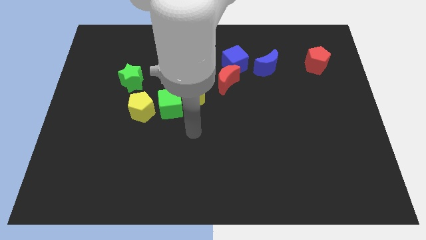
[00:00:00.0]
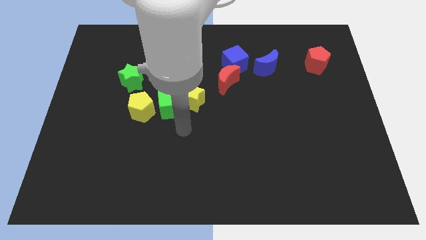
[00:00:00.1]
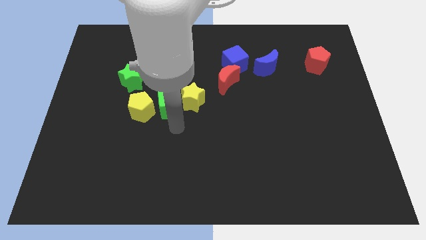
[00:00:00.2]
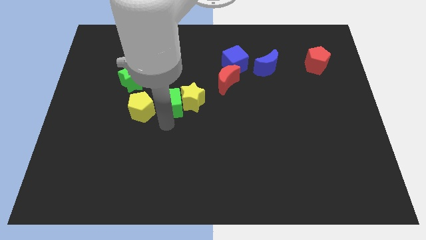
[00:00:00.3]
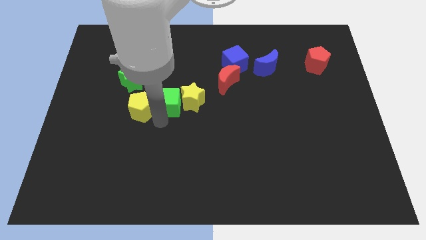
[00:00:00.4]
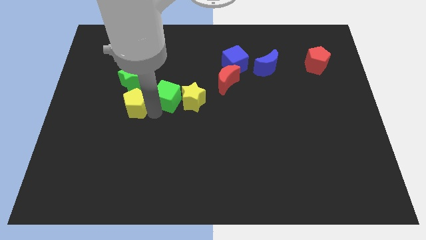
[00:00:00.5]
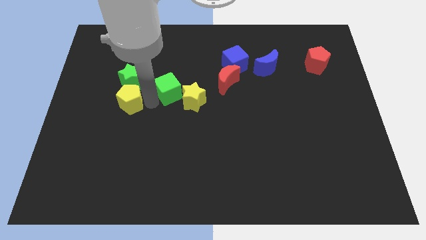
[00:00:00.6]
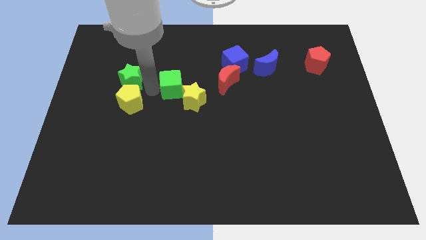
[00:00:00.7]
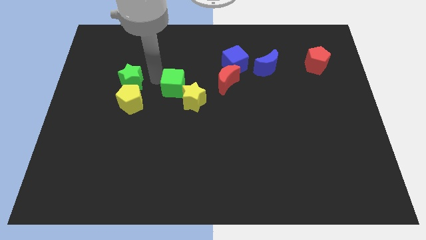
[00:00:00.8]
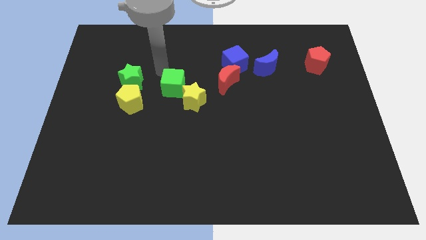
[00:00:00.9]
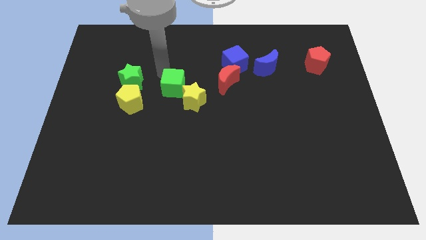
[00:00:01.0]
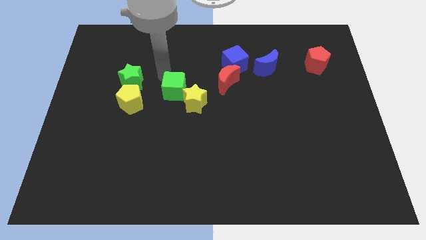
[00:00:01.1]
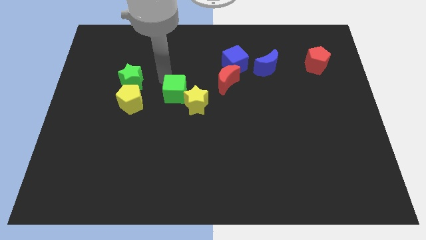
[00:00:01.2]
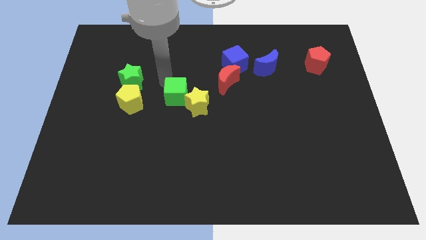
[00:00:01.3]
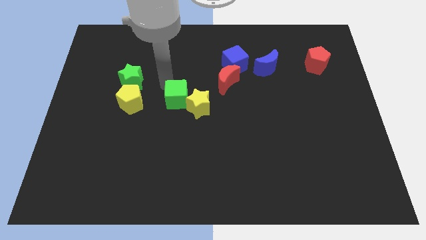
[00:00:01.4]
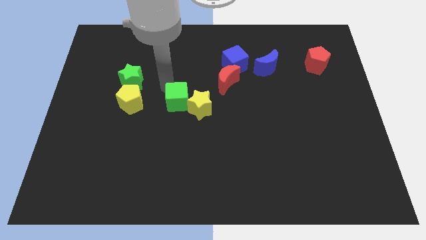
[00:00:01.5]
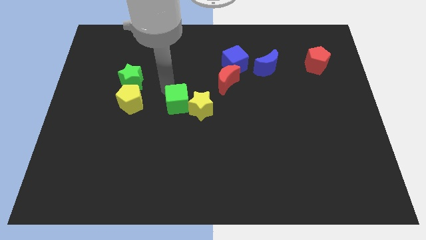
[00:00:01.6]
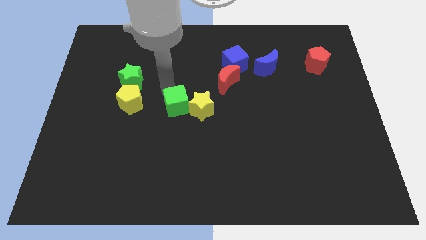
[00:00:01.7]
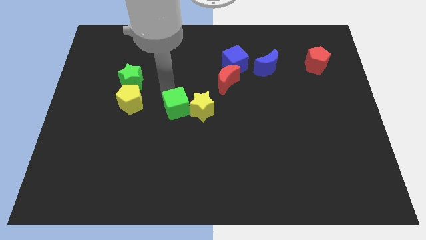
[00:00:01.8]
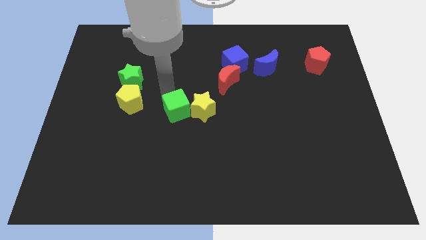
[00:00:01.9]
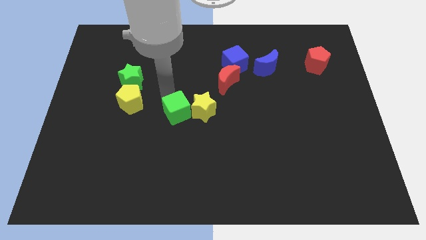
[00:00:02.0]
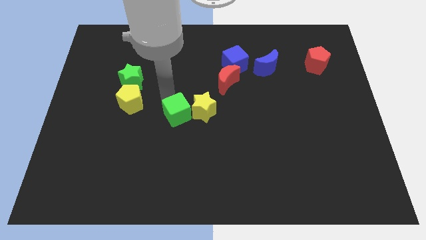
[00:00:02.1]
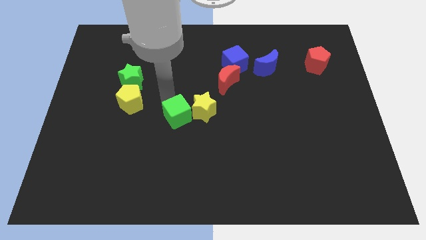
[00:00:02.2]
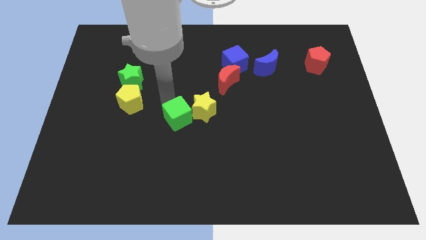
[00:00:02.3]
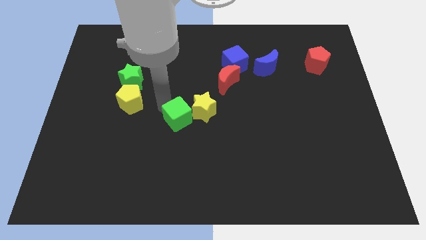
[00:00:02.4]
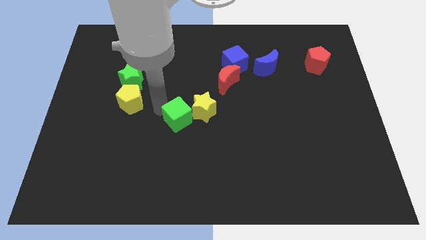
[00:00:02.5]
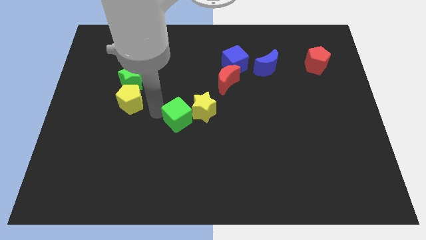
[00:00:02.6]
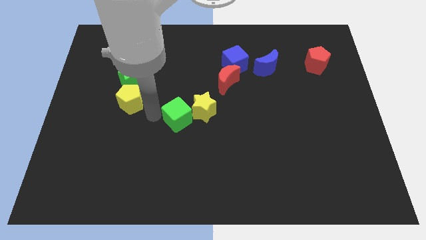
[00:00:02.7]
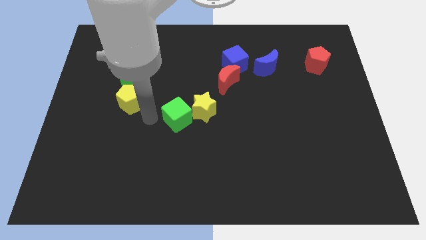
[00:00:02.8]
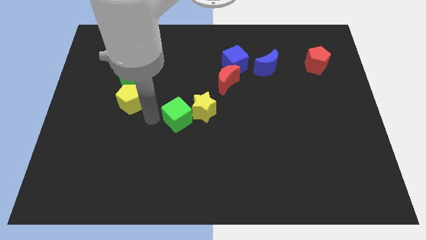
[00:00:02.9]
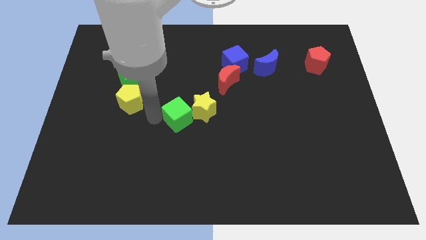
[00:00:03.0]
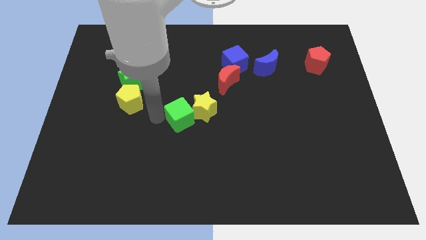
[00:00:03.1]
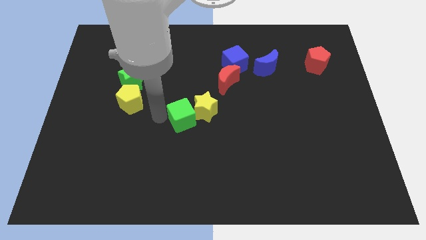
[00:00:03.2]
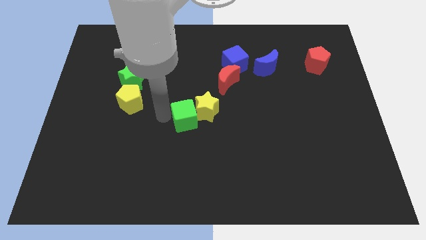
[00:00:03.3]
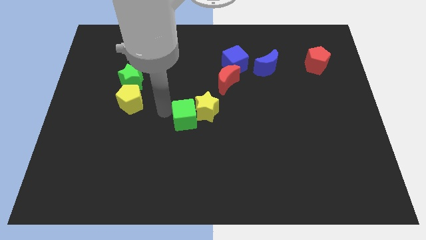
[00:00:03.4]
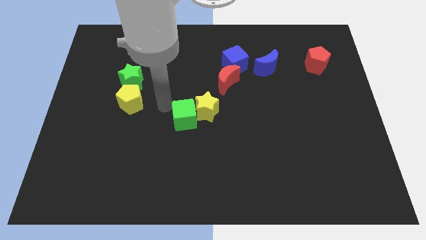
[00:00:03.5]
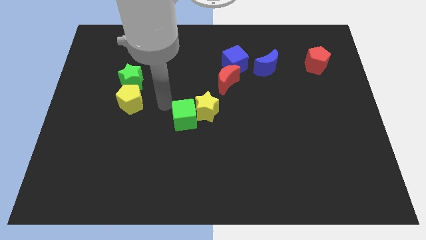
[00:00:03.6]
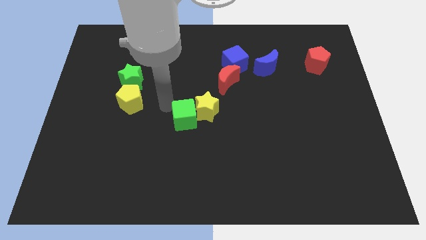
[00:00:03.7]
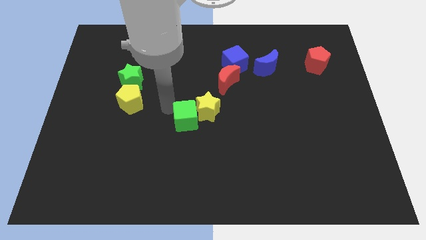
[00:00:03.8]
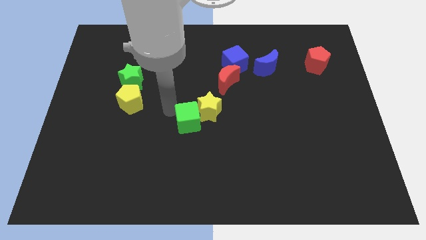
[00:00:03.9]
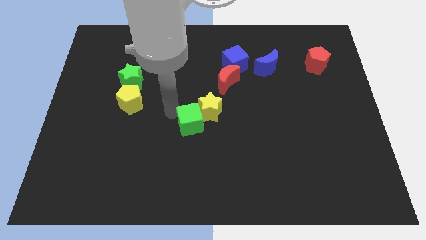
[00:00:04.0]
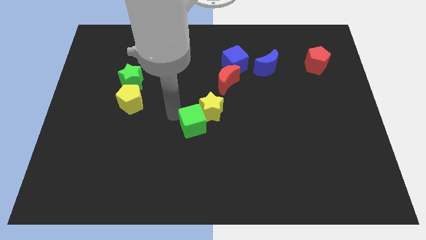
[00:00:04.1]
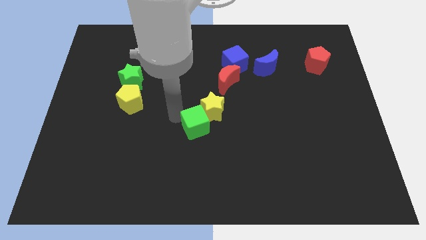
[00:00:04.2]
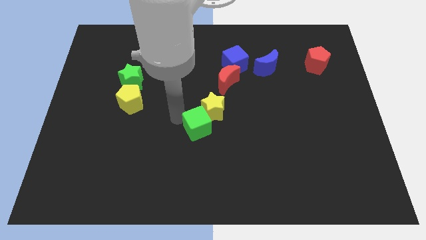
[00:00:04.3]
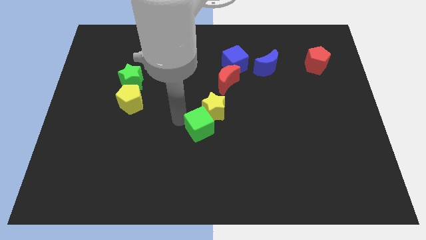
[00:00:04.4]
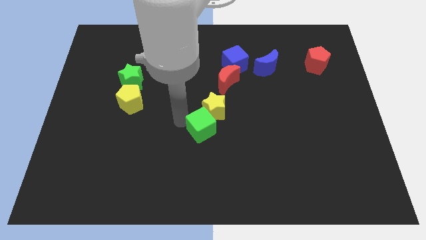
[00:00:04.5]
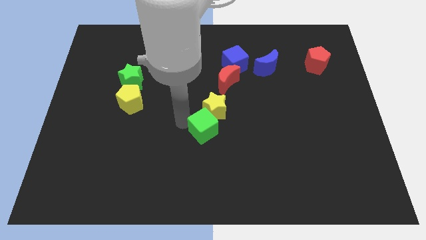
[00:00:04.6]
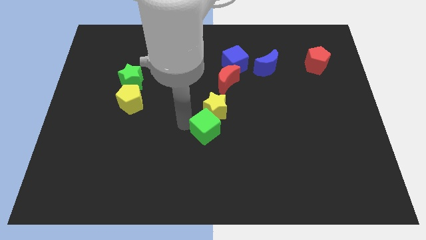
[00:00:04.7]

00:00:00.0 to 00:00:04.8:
pull the green cube apart from the yellow star and yellow pentagon

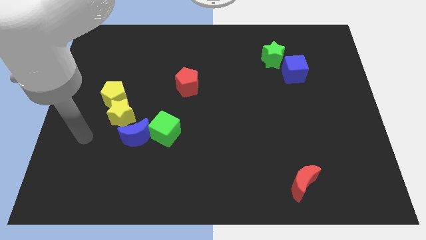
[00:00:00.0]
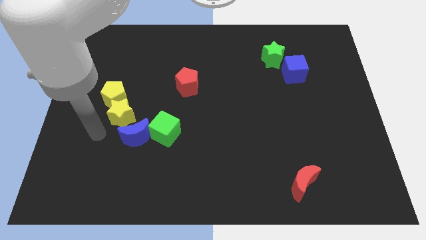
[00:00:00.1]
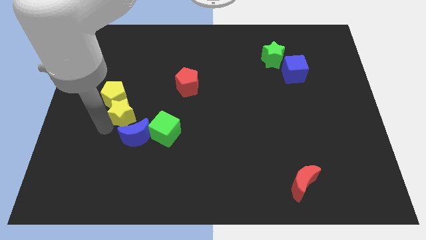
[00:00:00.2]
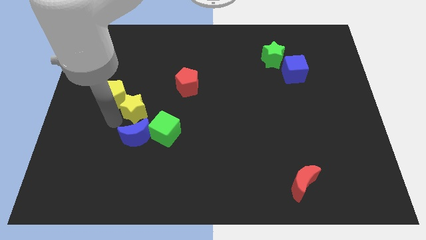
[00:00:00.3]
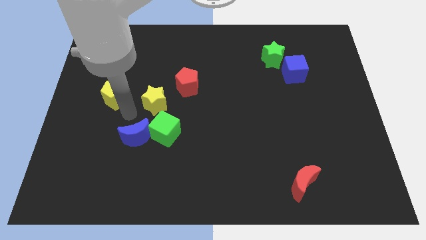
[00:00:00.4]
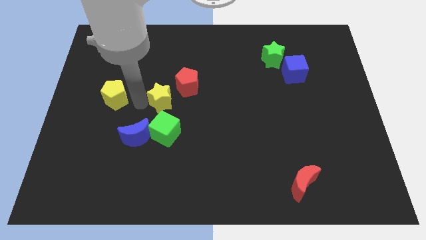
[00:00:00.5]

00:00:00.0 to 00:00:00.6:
separate the yellow pentagon from the yellow star

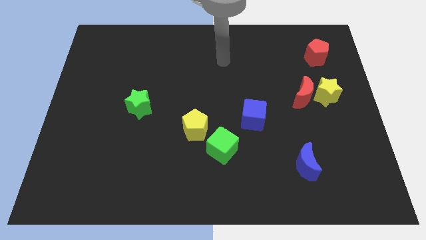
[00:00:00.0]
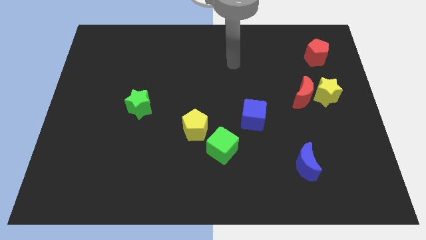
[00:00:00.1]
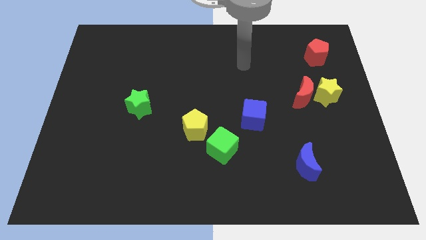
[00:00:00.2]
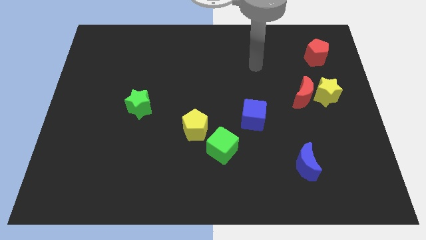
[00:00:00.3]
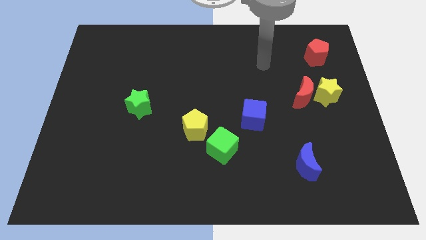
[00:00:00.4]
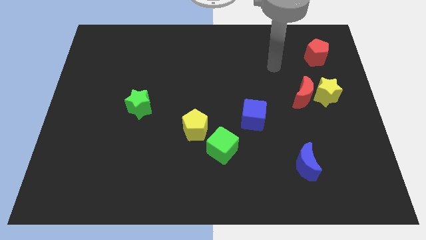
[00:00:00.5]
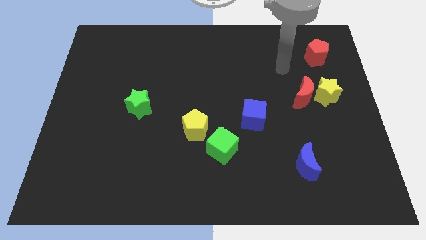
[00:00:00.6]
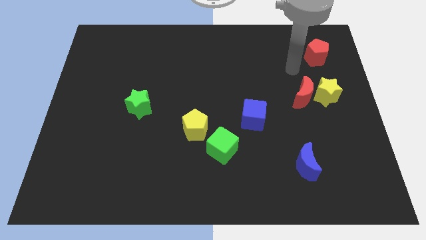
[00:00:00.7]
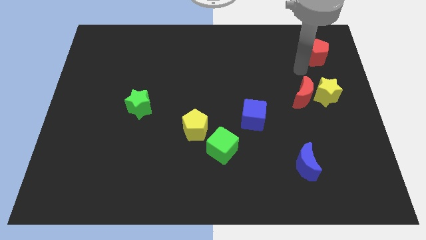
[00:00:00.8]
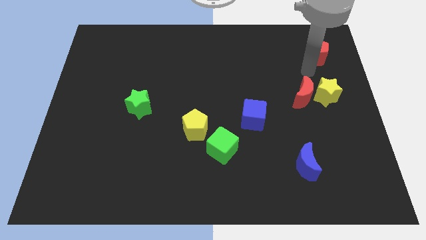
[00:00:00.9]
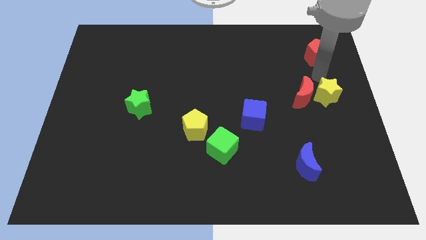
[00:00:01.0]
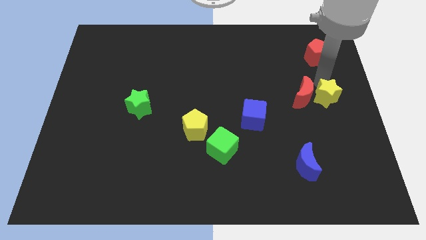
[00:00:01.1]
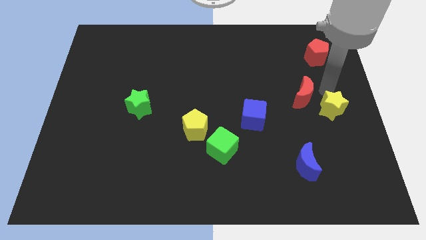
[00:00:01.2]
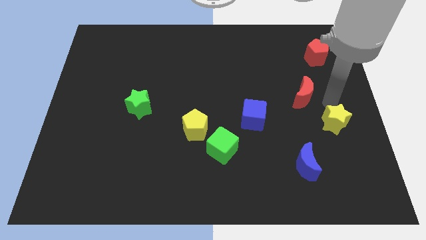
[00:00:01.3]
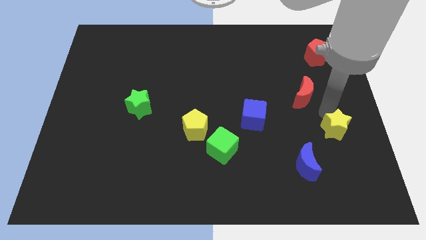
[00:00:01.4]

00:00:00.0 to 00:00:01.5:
pull the red moon apart from the yellow star

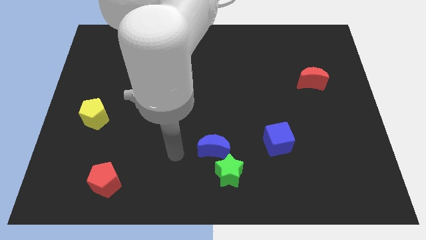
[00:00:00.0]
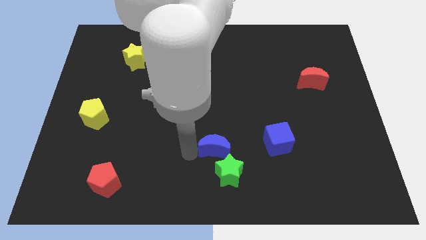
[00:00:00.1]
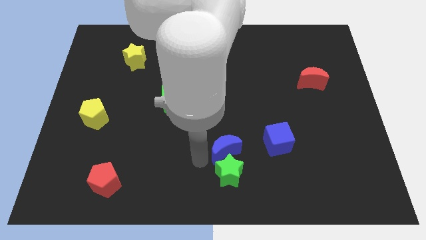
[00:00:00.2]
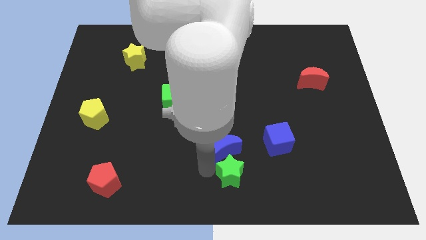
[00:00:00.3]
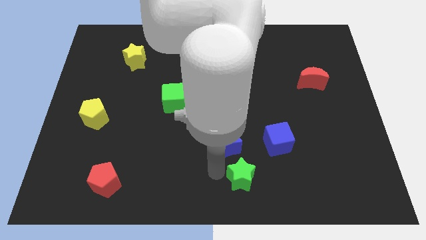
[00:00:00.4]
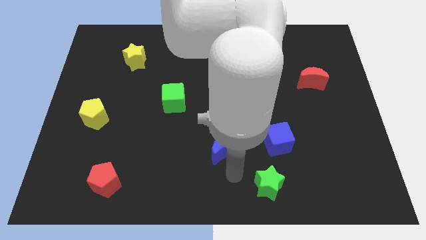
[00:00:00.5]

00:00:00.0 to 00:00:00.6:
move the blue moon away from the green star

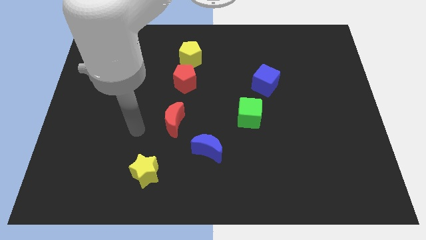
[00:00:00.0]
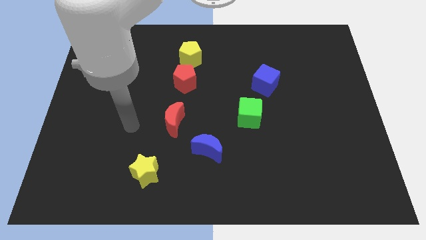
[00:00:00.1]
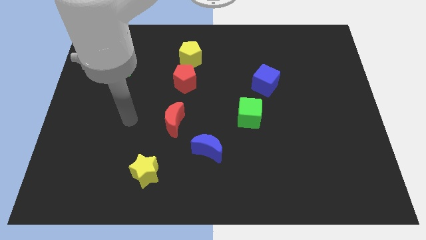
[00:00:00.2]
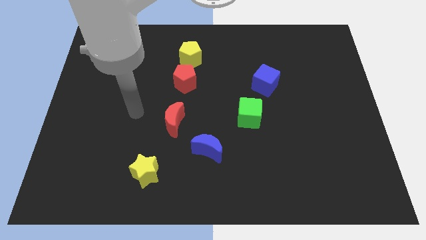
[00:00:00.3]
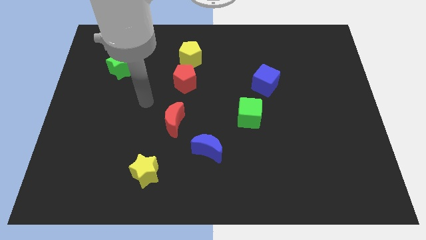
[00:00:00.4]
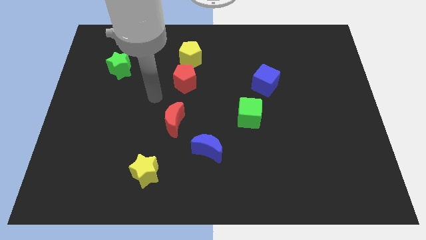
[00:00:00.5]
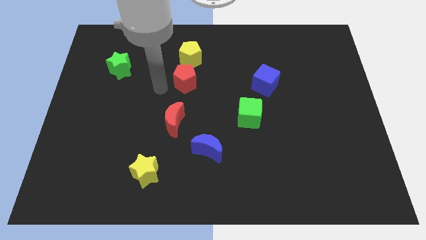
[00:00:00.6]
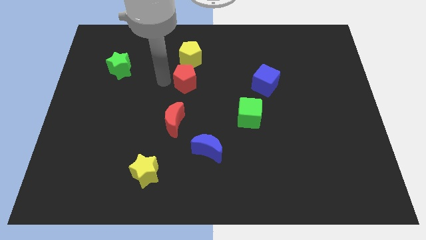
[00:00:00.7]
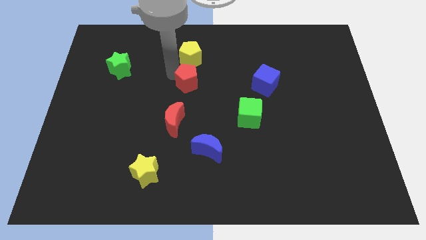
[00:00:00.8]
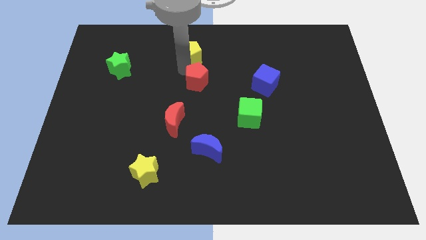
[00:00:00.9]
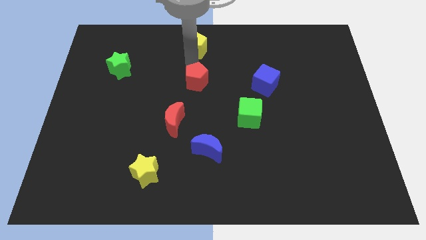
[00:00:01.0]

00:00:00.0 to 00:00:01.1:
move the red pentagon away from the yellow pentagon

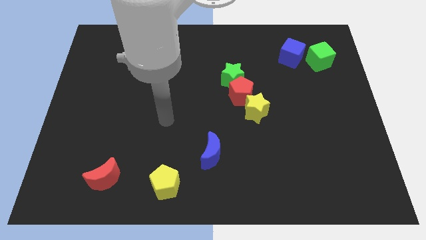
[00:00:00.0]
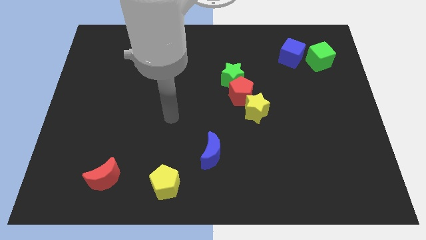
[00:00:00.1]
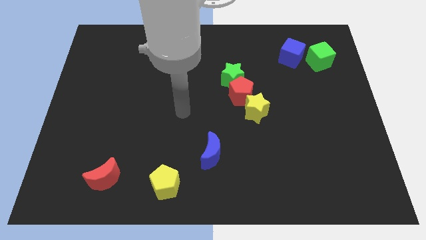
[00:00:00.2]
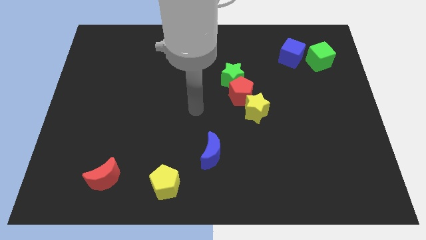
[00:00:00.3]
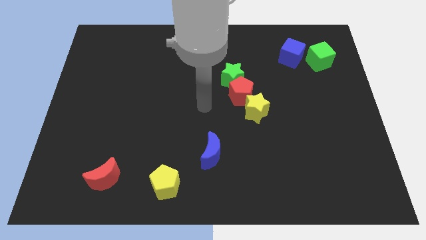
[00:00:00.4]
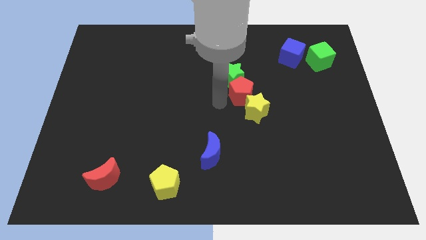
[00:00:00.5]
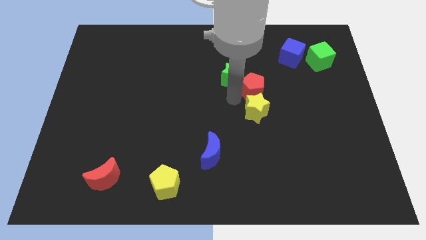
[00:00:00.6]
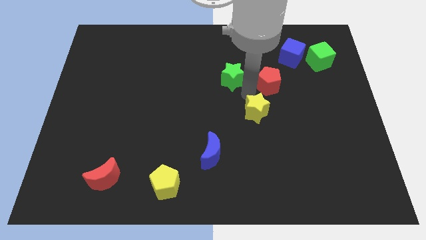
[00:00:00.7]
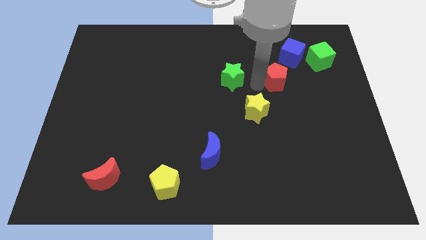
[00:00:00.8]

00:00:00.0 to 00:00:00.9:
separate the green star from the red pentagon
